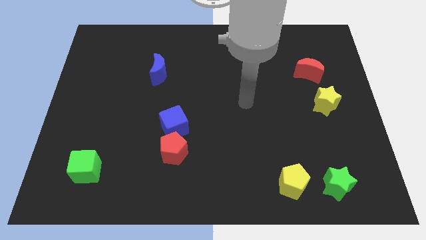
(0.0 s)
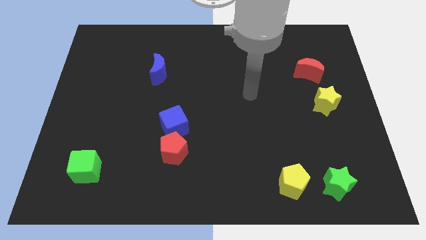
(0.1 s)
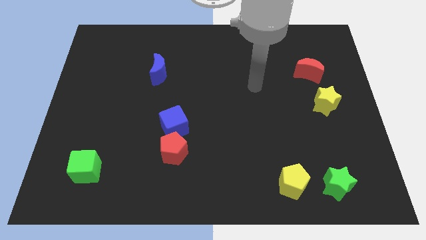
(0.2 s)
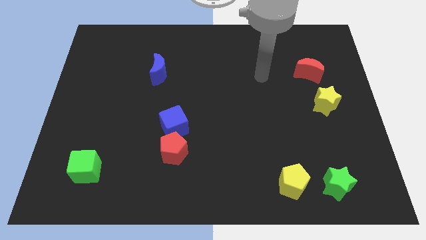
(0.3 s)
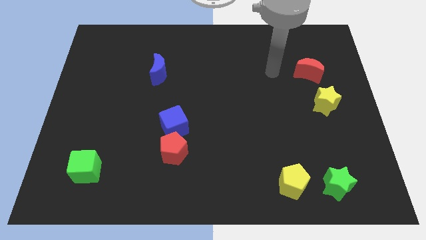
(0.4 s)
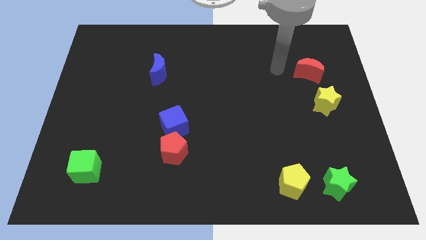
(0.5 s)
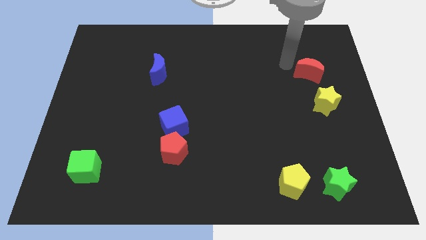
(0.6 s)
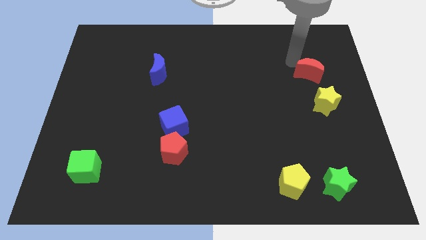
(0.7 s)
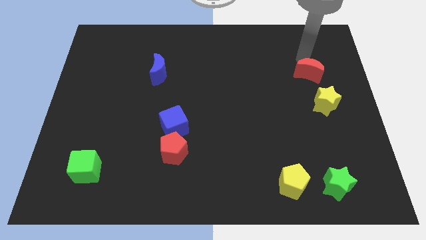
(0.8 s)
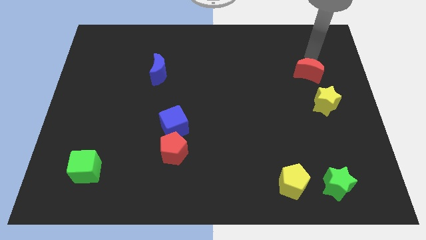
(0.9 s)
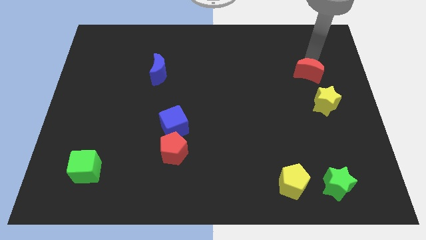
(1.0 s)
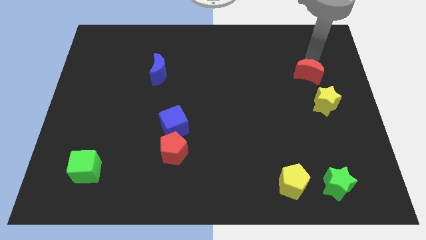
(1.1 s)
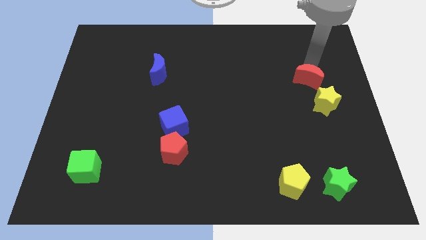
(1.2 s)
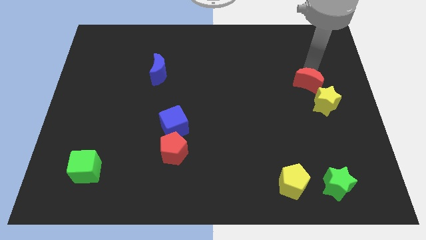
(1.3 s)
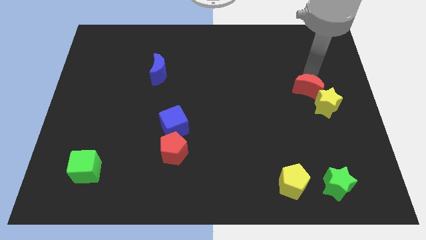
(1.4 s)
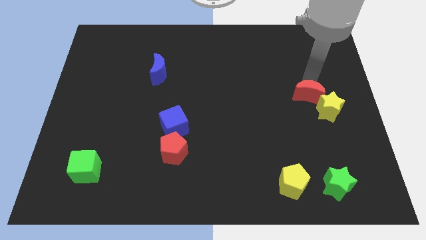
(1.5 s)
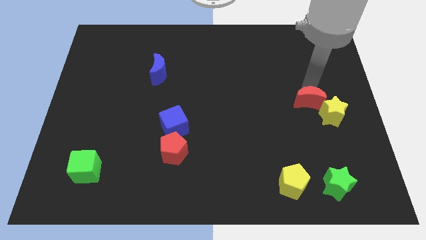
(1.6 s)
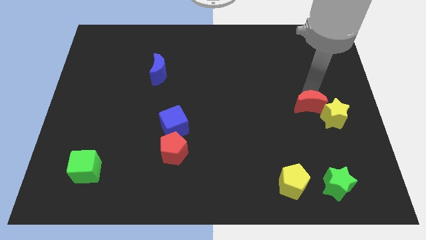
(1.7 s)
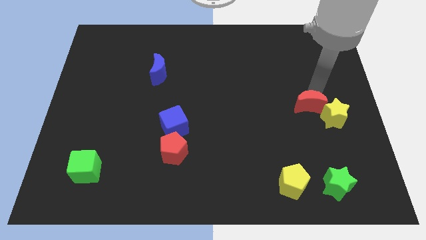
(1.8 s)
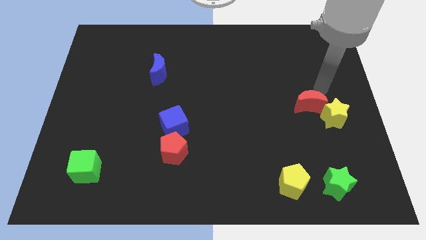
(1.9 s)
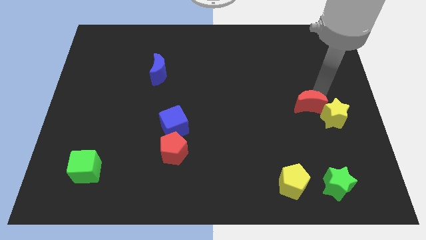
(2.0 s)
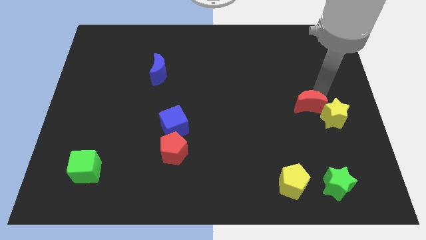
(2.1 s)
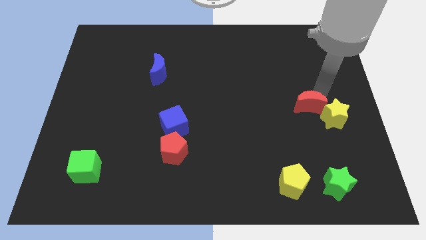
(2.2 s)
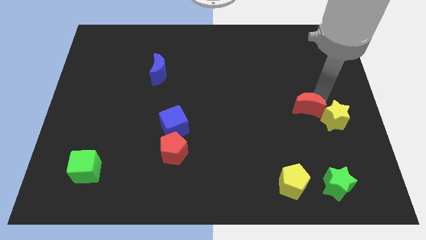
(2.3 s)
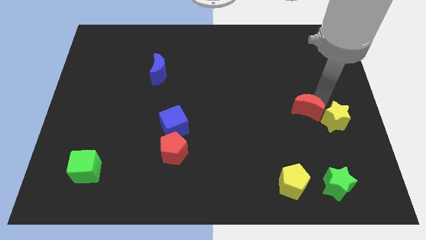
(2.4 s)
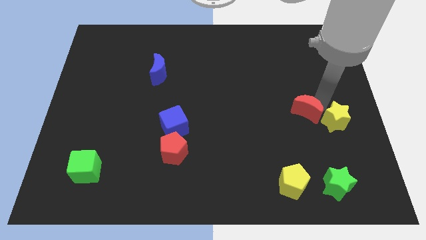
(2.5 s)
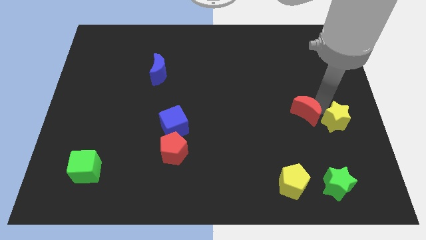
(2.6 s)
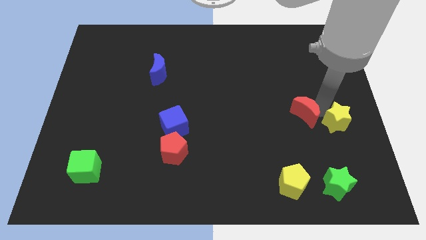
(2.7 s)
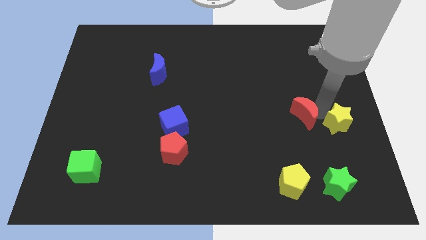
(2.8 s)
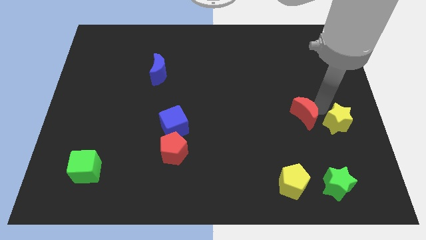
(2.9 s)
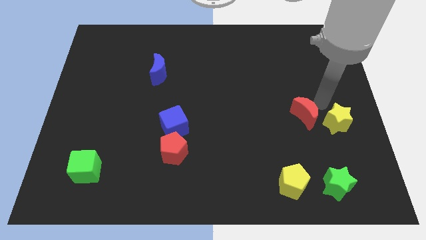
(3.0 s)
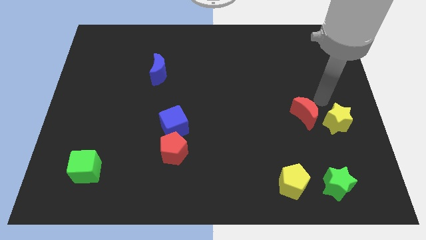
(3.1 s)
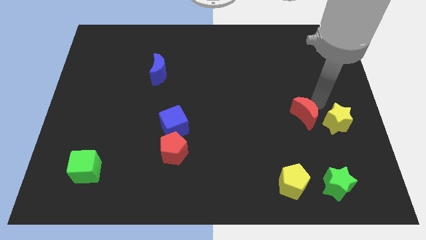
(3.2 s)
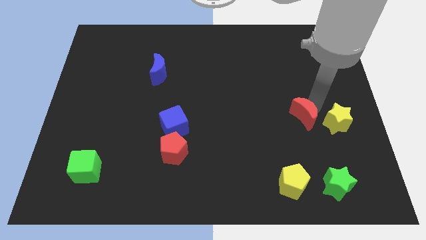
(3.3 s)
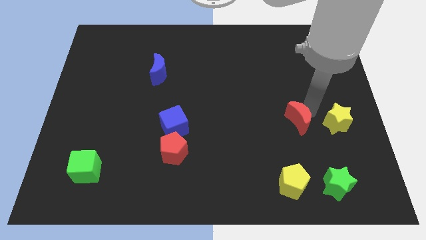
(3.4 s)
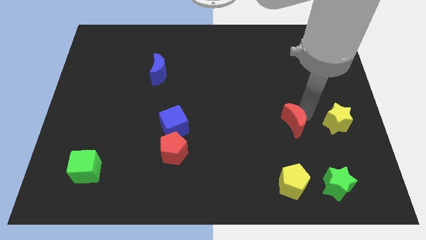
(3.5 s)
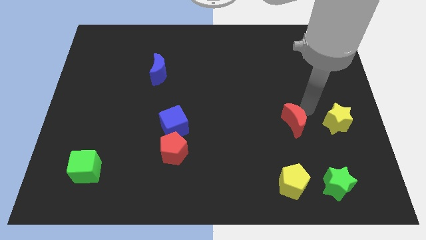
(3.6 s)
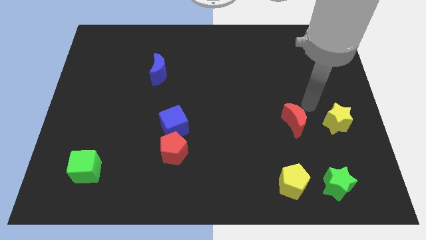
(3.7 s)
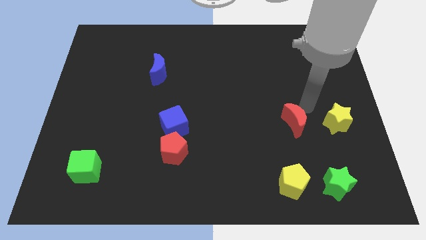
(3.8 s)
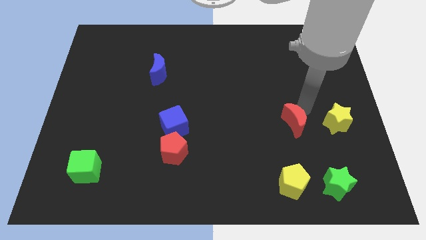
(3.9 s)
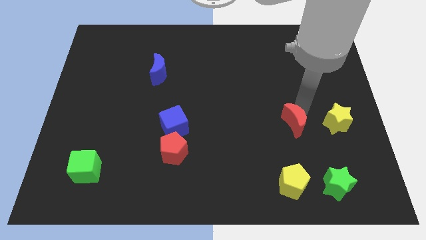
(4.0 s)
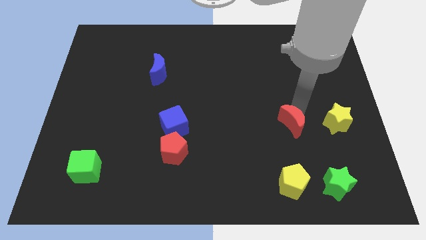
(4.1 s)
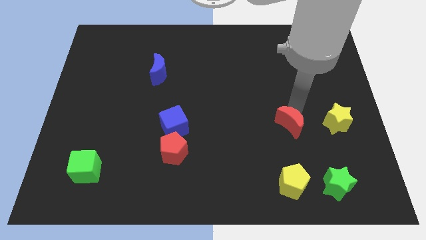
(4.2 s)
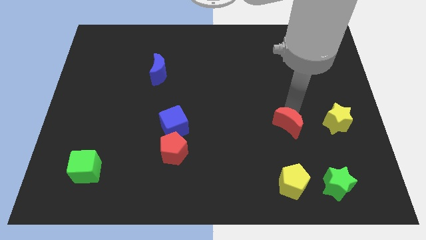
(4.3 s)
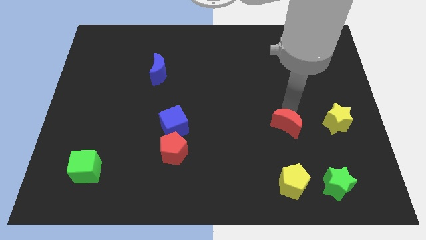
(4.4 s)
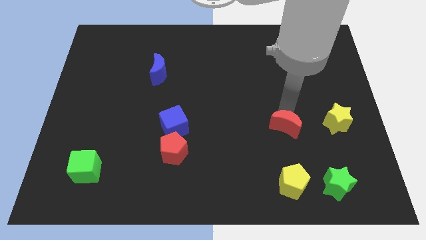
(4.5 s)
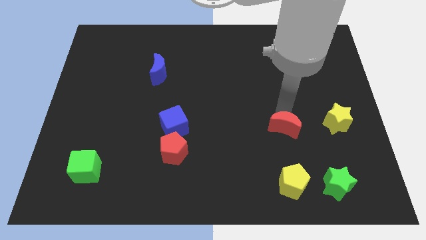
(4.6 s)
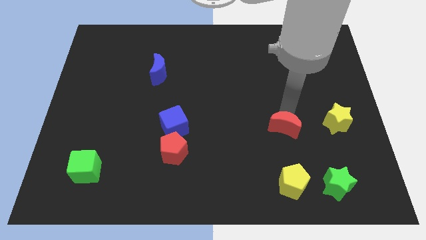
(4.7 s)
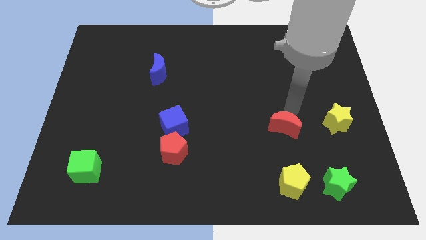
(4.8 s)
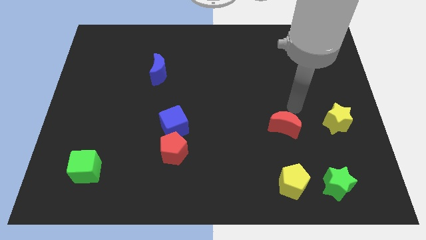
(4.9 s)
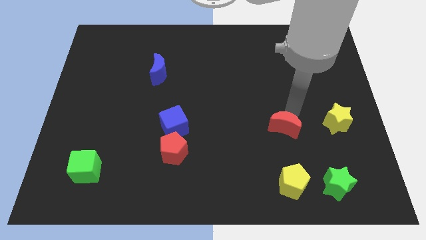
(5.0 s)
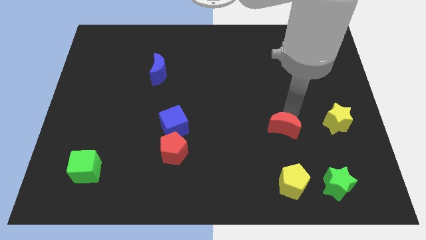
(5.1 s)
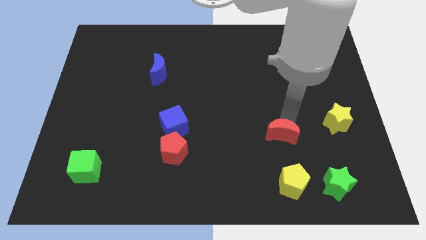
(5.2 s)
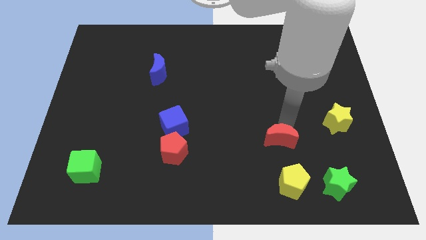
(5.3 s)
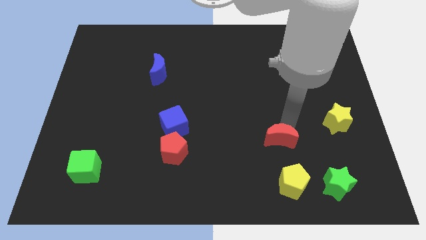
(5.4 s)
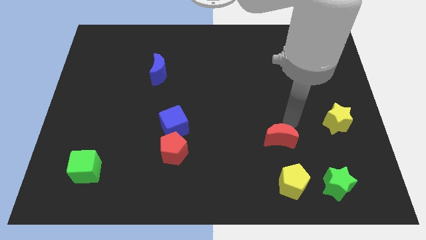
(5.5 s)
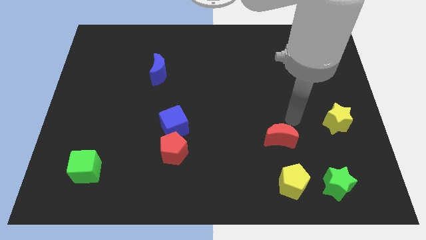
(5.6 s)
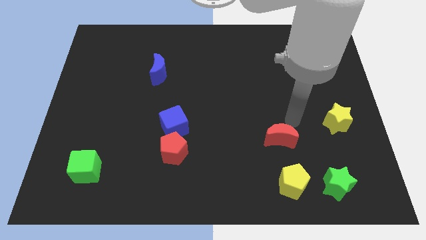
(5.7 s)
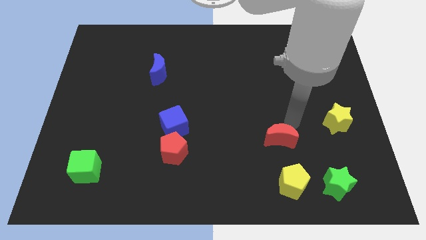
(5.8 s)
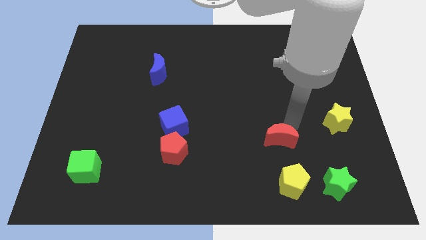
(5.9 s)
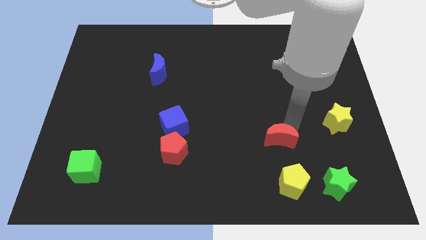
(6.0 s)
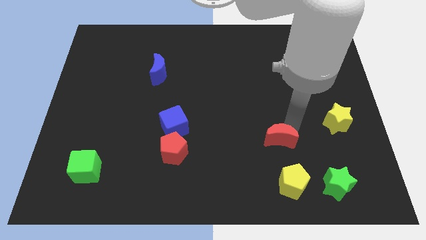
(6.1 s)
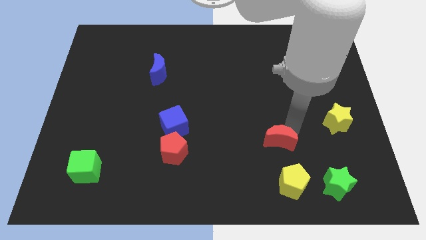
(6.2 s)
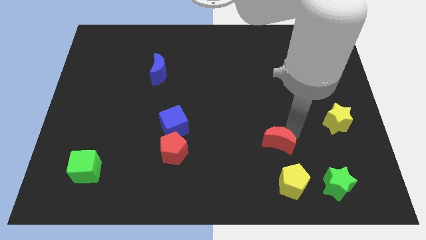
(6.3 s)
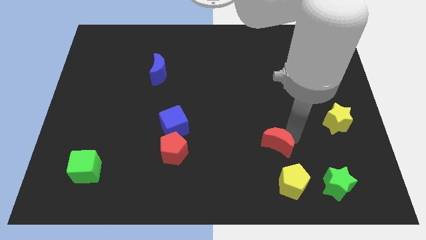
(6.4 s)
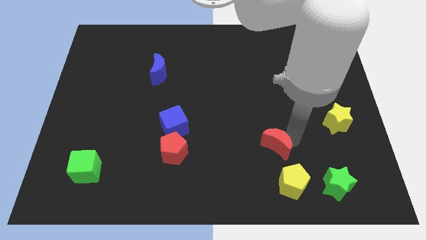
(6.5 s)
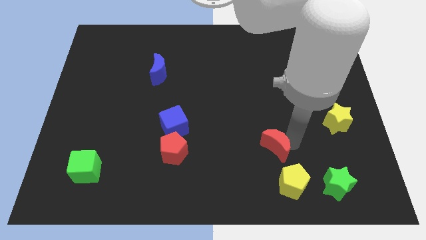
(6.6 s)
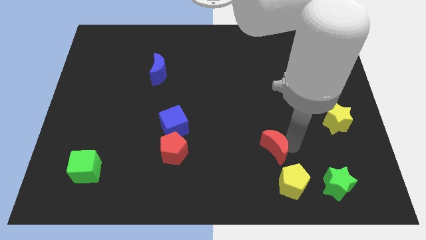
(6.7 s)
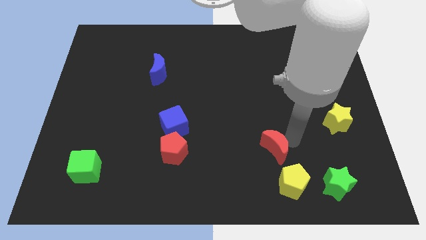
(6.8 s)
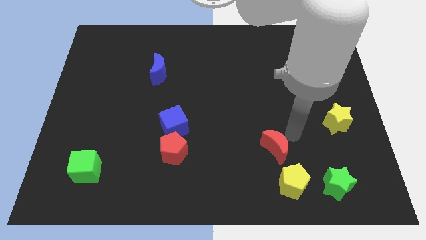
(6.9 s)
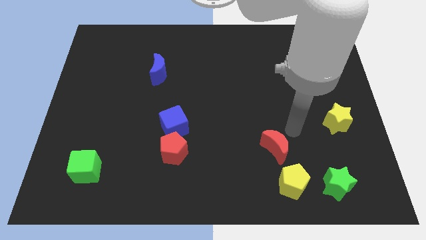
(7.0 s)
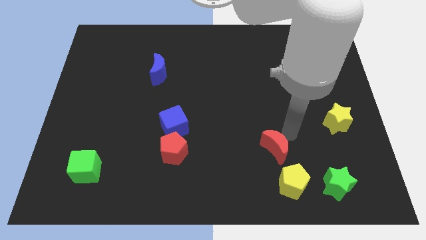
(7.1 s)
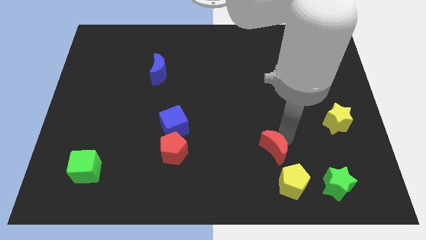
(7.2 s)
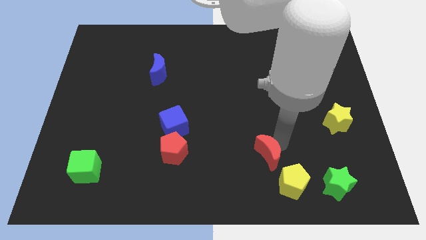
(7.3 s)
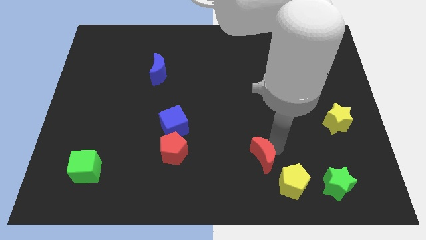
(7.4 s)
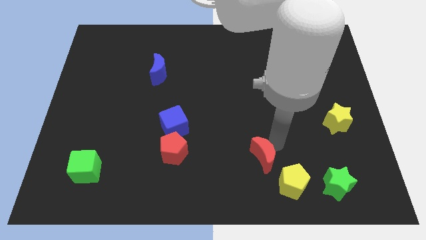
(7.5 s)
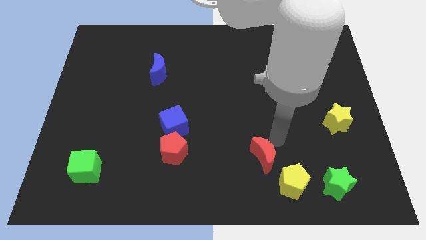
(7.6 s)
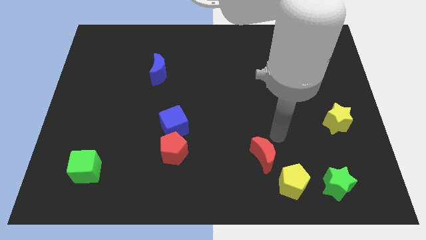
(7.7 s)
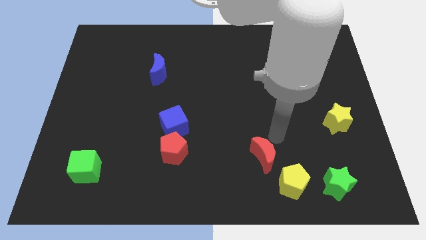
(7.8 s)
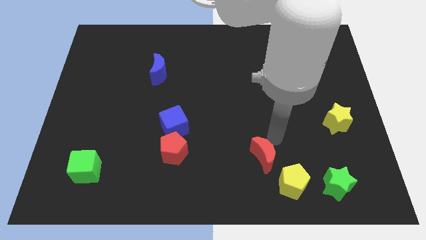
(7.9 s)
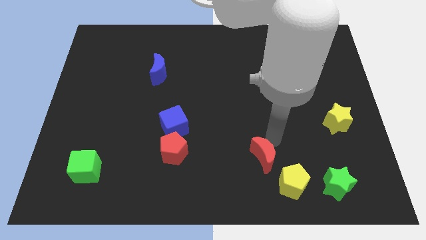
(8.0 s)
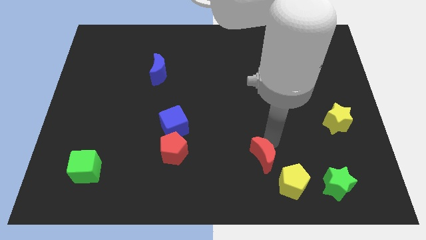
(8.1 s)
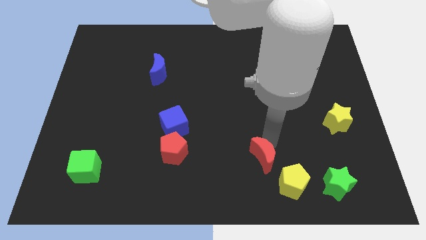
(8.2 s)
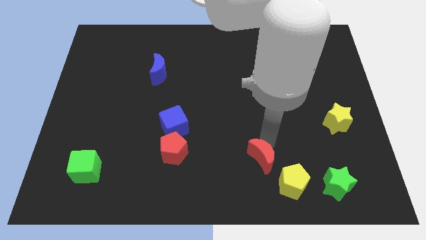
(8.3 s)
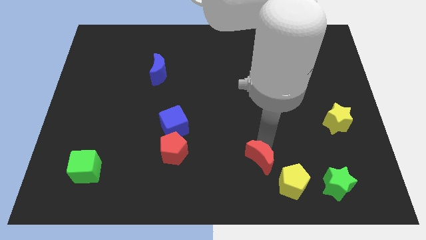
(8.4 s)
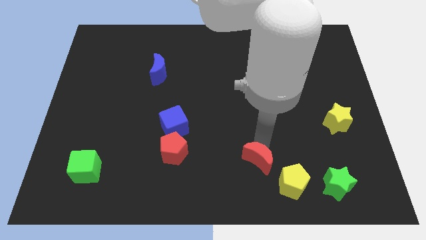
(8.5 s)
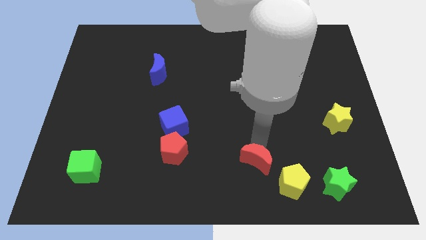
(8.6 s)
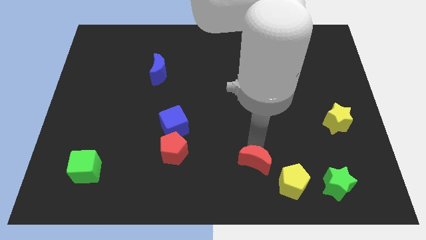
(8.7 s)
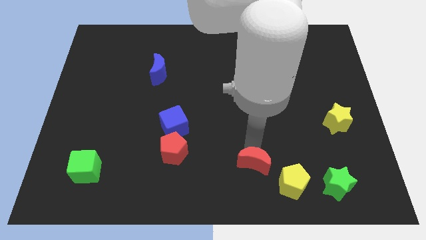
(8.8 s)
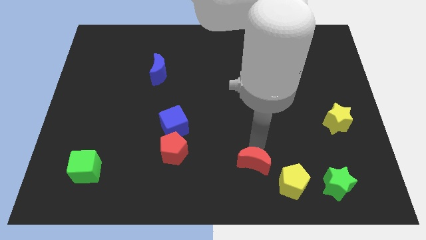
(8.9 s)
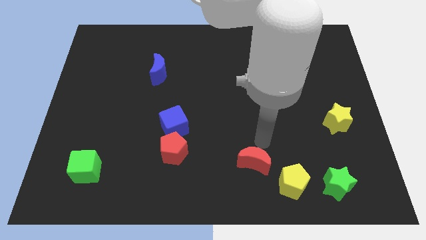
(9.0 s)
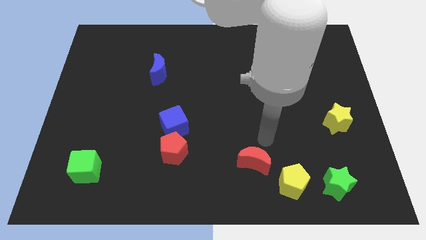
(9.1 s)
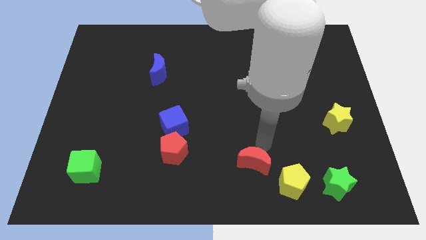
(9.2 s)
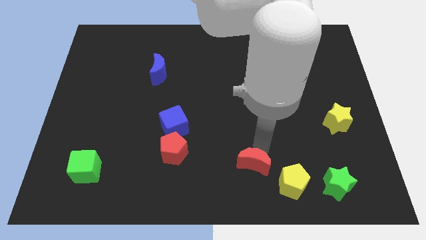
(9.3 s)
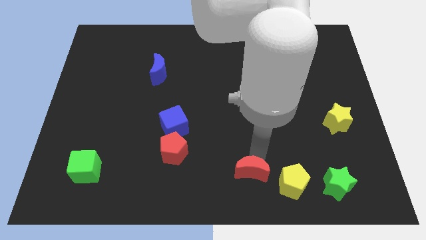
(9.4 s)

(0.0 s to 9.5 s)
push the red moon to the bottom
